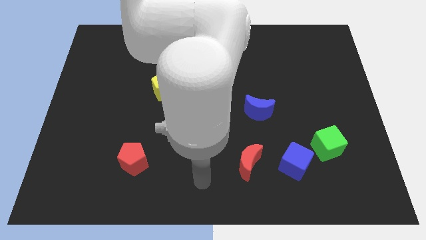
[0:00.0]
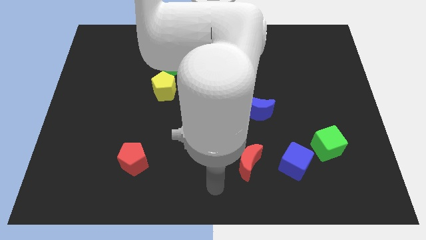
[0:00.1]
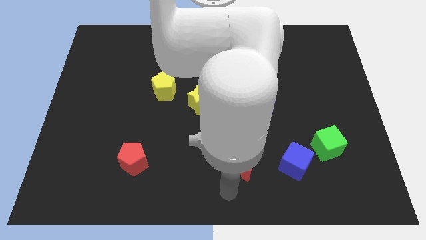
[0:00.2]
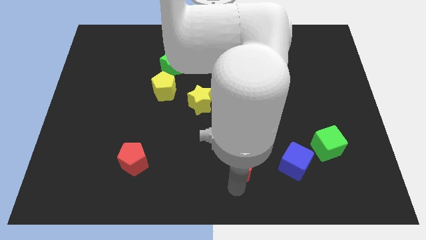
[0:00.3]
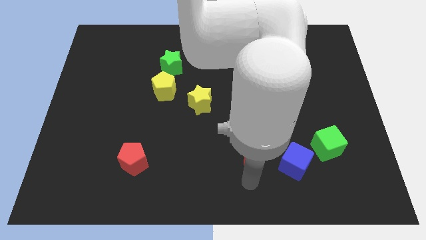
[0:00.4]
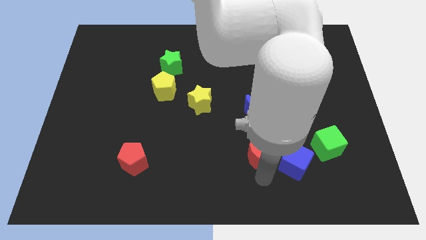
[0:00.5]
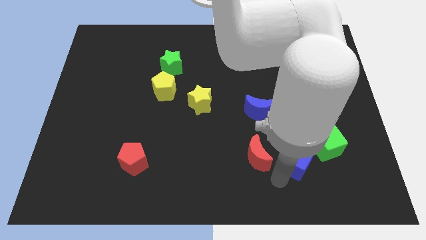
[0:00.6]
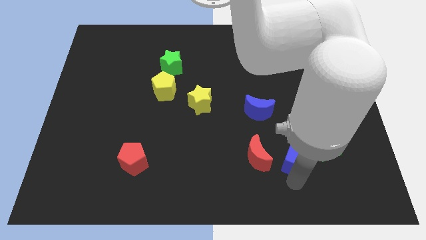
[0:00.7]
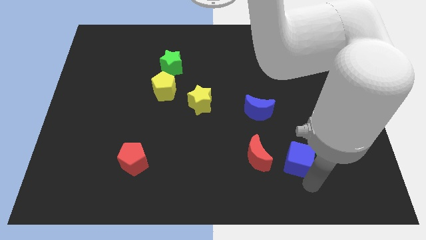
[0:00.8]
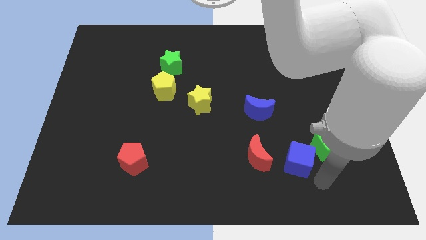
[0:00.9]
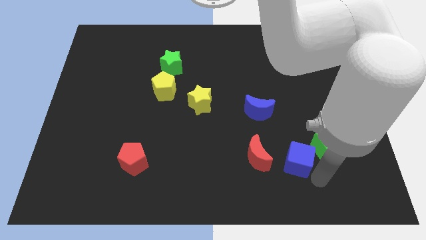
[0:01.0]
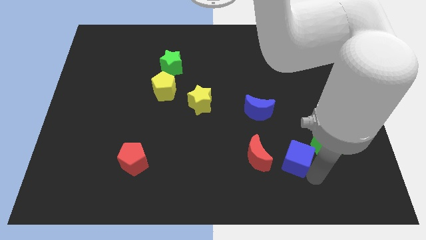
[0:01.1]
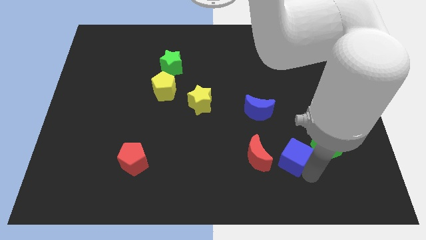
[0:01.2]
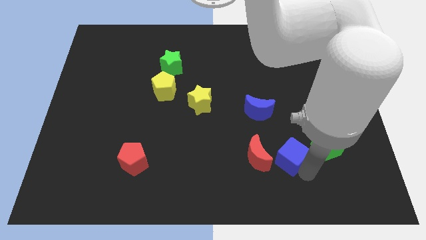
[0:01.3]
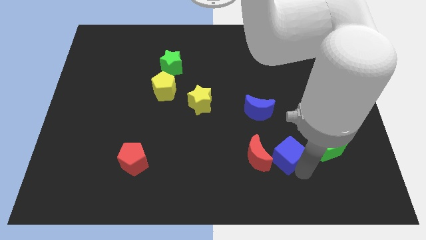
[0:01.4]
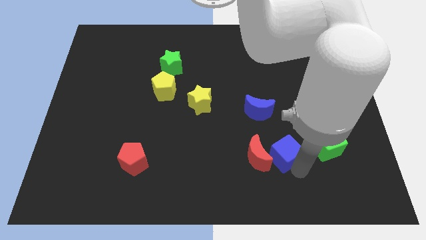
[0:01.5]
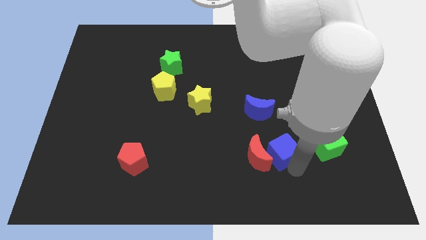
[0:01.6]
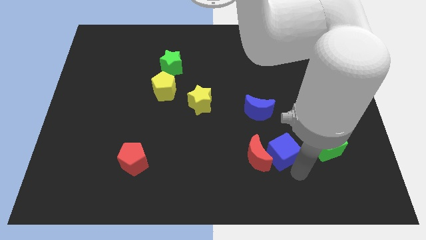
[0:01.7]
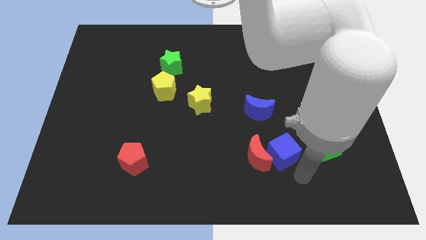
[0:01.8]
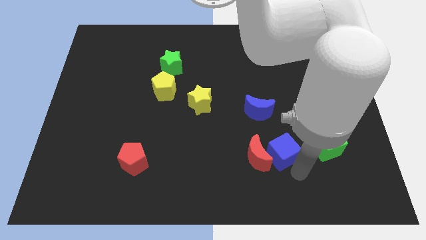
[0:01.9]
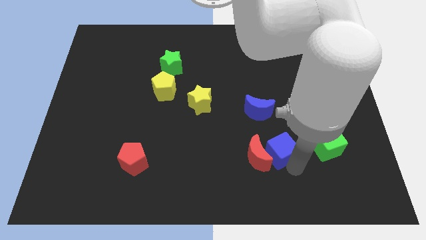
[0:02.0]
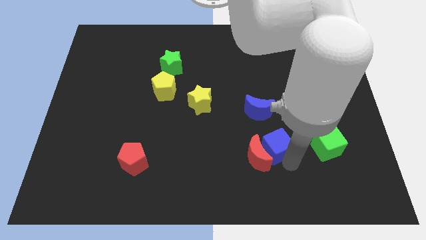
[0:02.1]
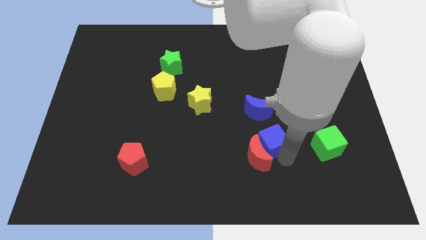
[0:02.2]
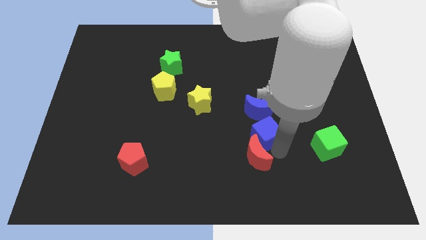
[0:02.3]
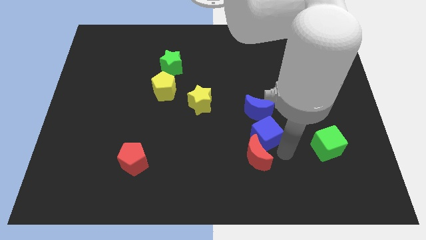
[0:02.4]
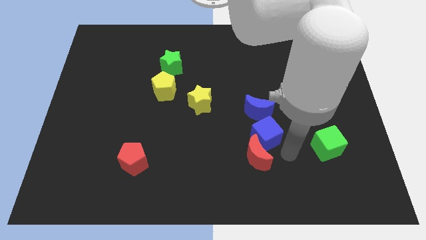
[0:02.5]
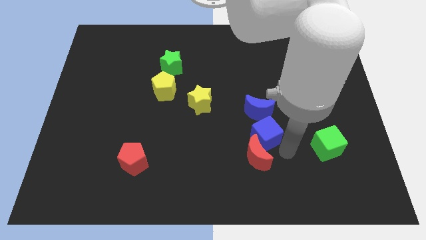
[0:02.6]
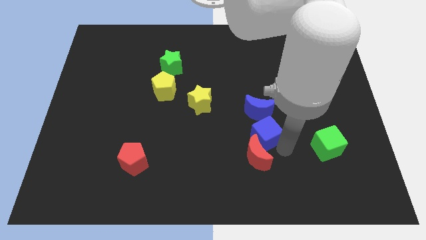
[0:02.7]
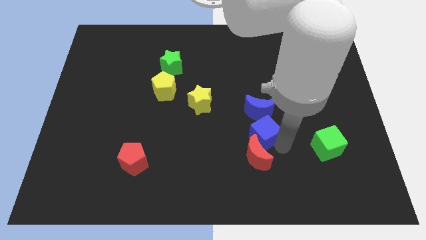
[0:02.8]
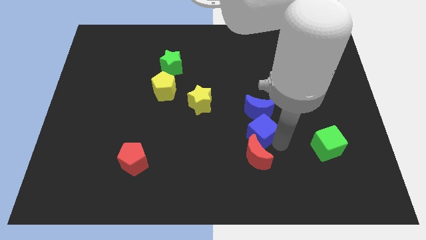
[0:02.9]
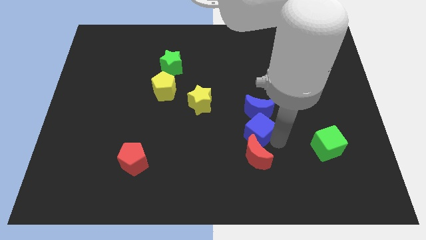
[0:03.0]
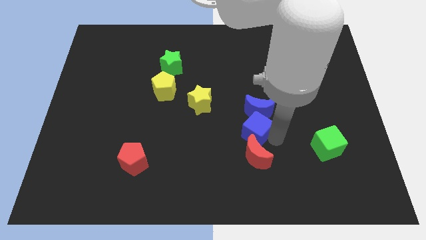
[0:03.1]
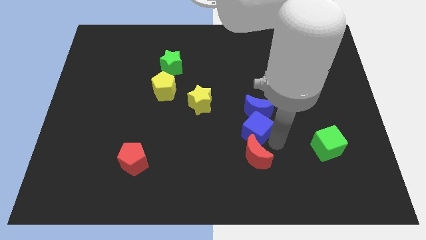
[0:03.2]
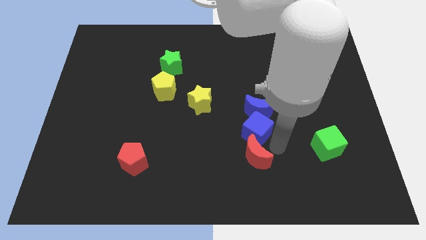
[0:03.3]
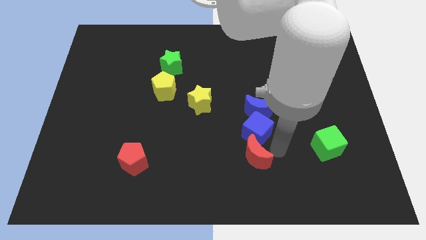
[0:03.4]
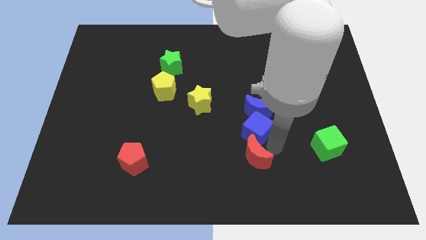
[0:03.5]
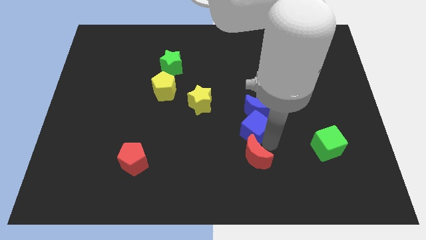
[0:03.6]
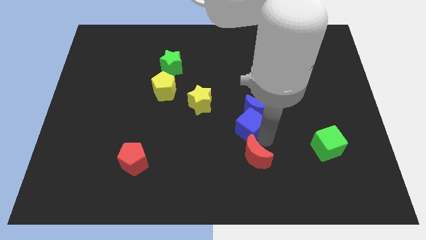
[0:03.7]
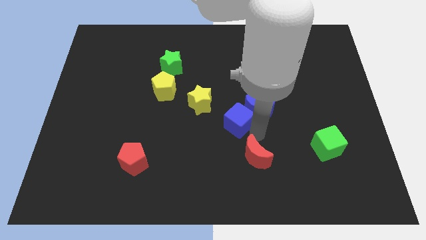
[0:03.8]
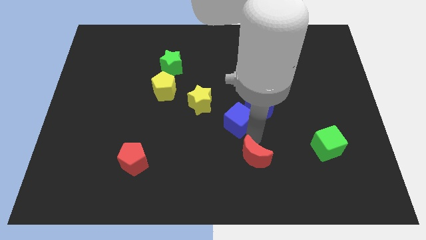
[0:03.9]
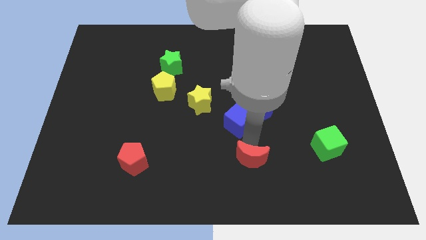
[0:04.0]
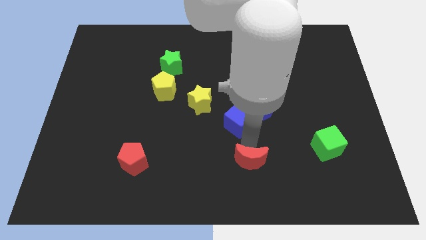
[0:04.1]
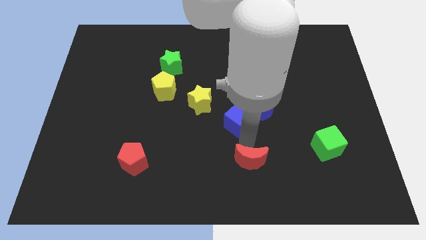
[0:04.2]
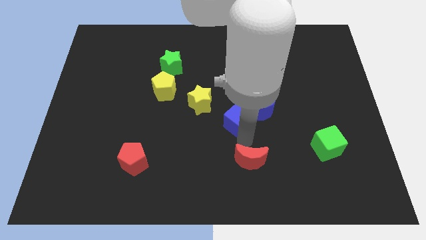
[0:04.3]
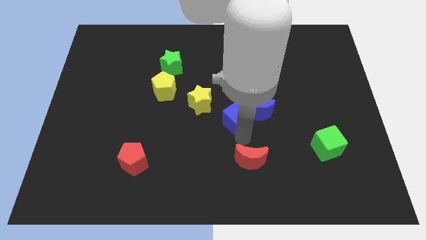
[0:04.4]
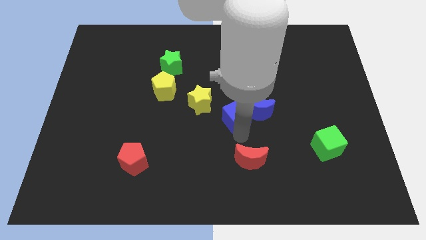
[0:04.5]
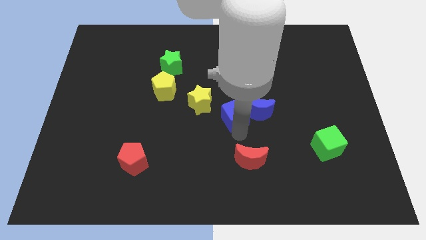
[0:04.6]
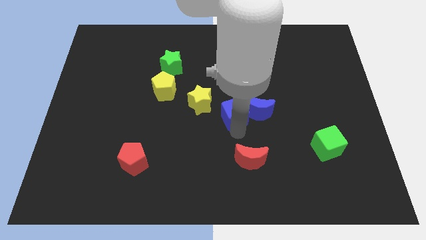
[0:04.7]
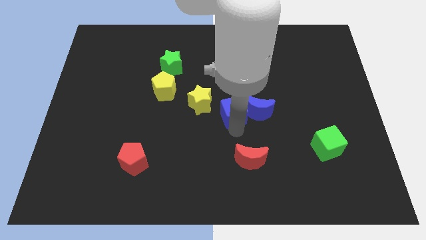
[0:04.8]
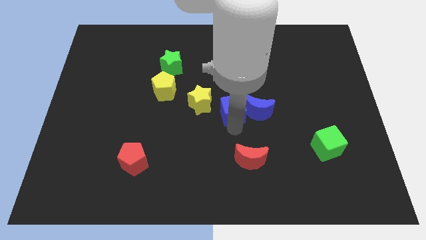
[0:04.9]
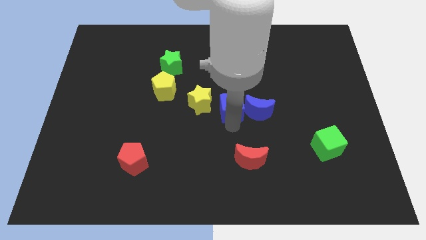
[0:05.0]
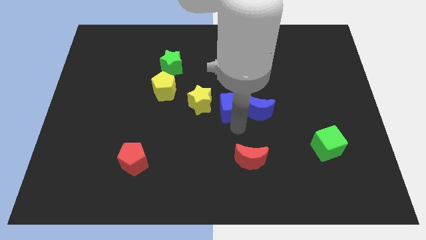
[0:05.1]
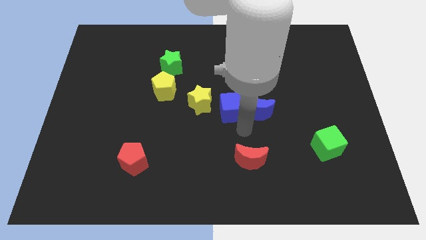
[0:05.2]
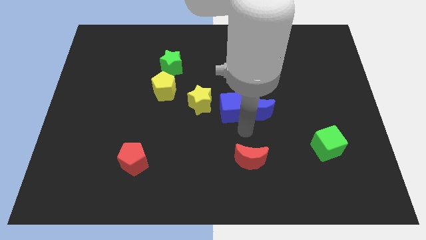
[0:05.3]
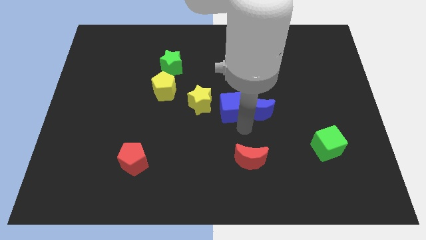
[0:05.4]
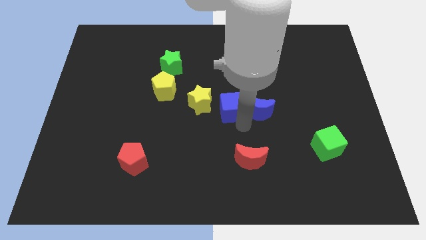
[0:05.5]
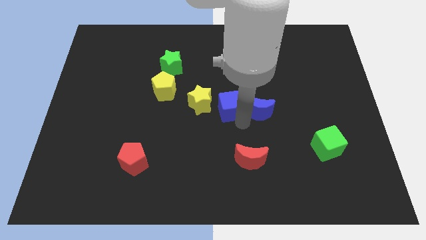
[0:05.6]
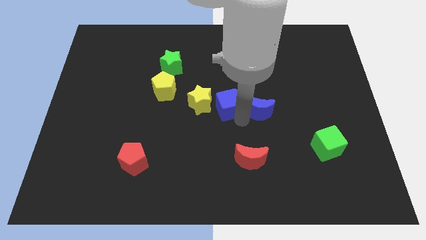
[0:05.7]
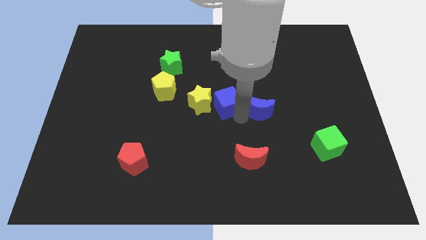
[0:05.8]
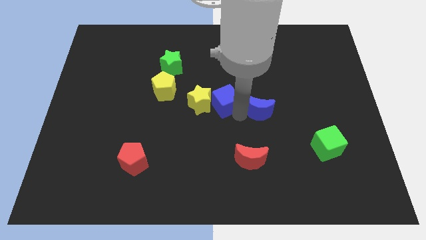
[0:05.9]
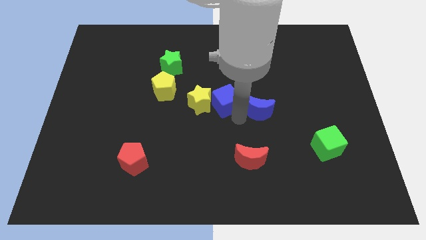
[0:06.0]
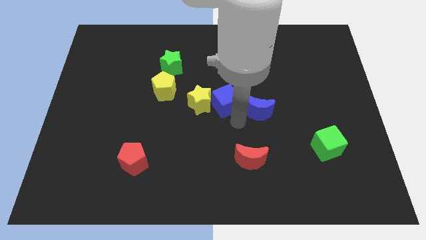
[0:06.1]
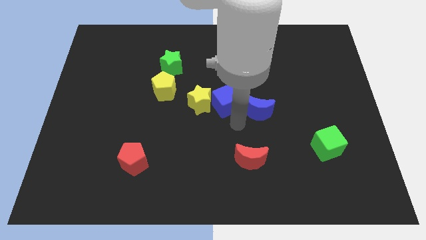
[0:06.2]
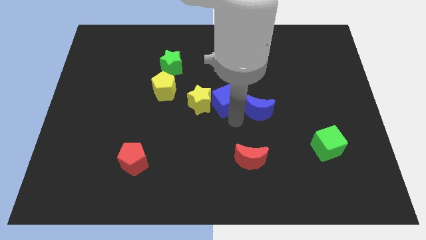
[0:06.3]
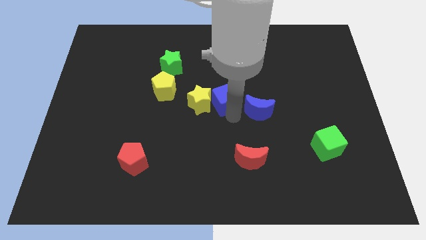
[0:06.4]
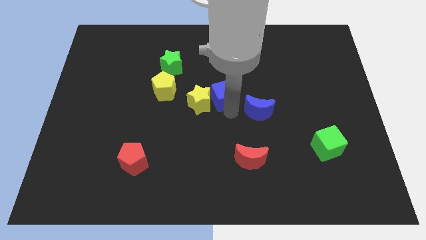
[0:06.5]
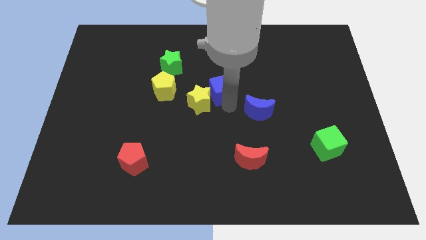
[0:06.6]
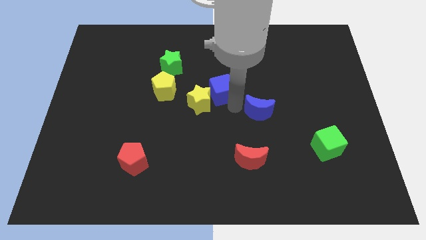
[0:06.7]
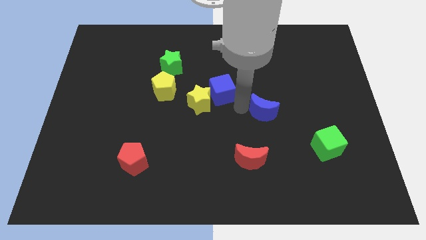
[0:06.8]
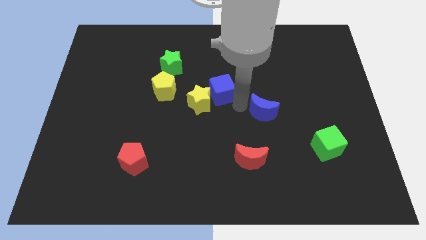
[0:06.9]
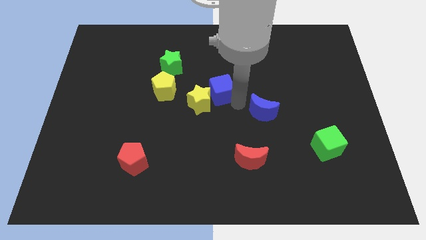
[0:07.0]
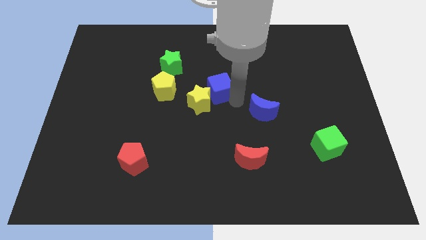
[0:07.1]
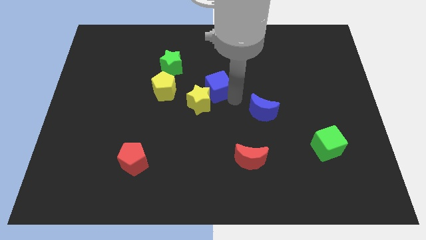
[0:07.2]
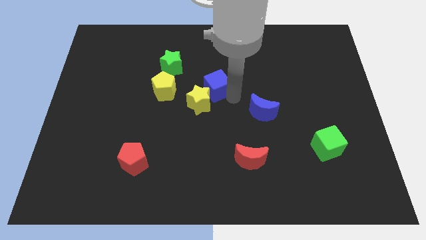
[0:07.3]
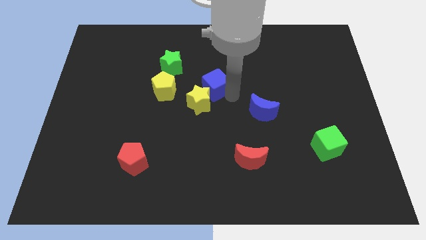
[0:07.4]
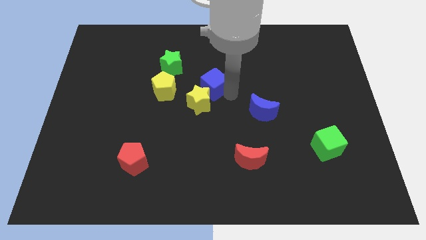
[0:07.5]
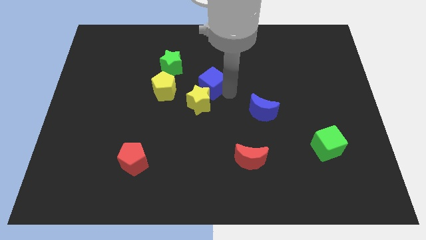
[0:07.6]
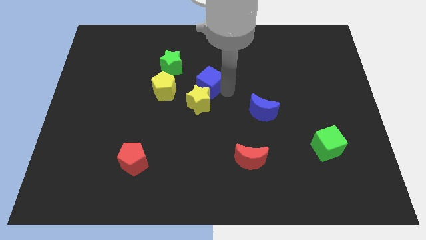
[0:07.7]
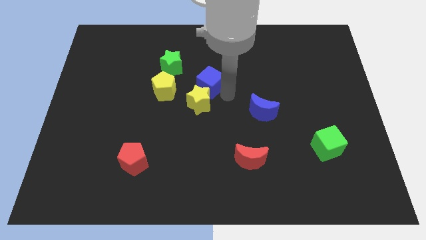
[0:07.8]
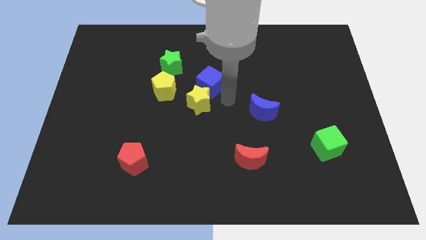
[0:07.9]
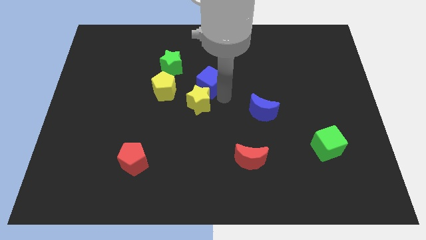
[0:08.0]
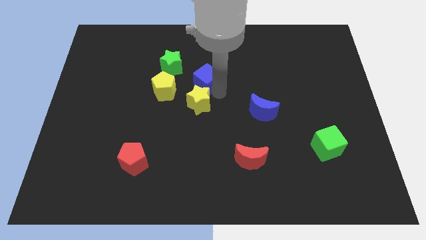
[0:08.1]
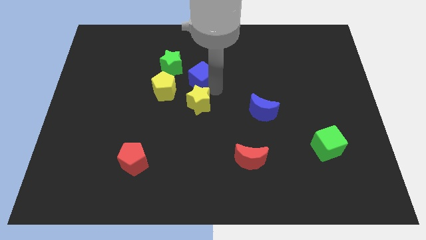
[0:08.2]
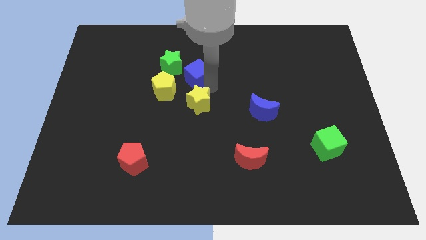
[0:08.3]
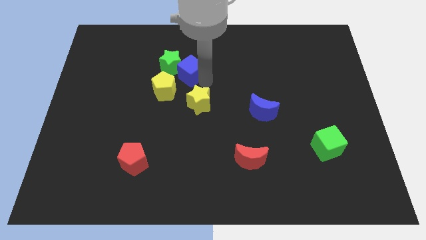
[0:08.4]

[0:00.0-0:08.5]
slide the blue cube towards the green star
